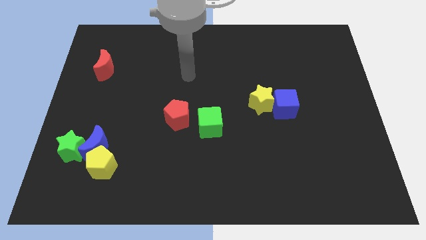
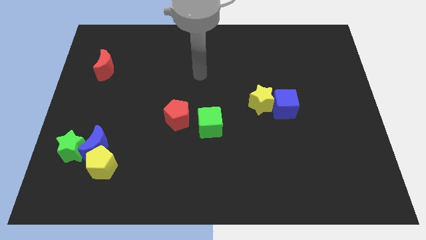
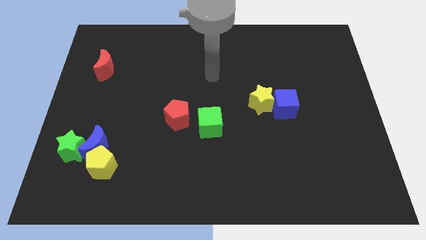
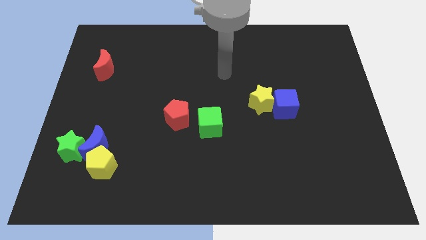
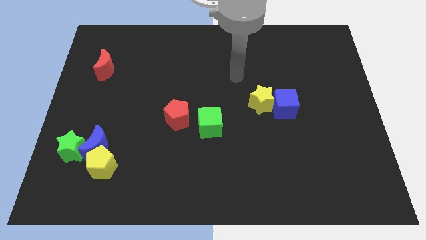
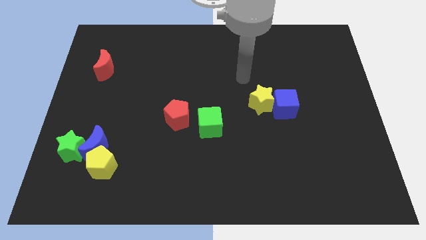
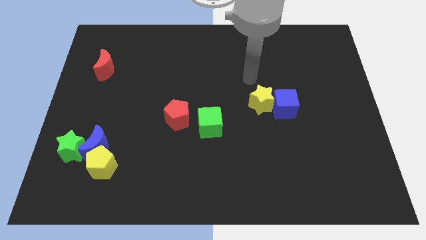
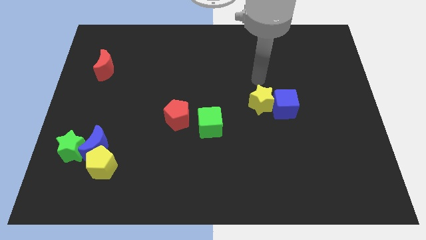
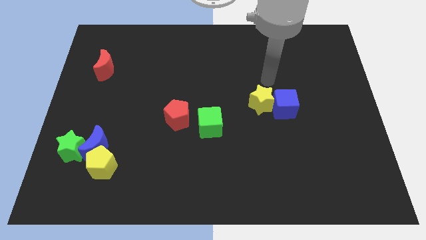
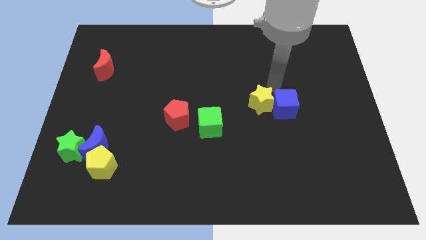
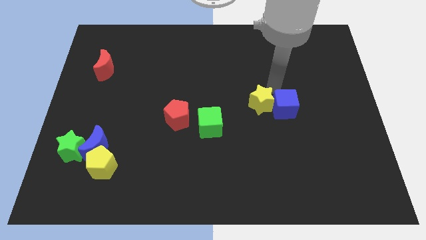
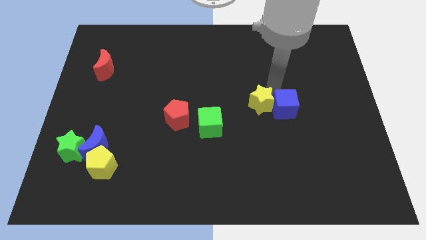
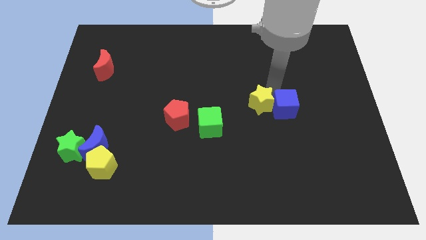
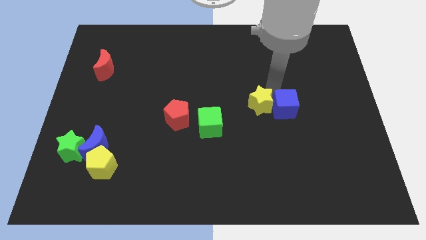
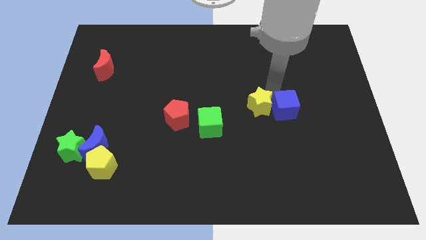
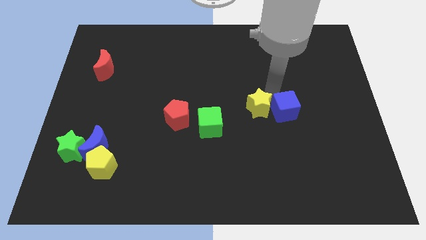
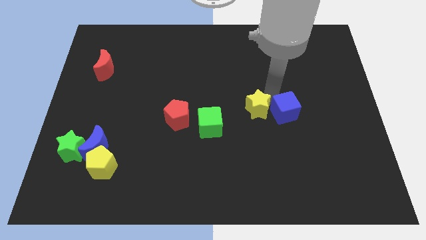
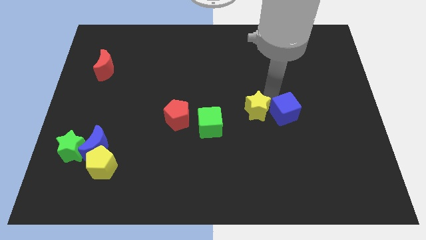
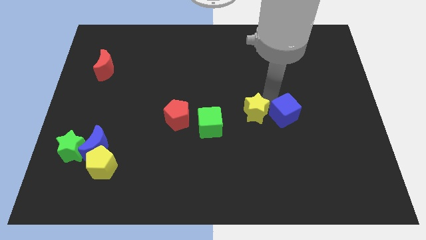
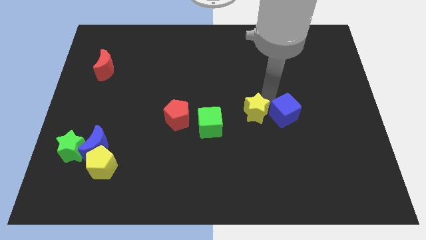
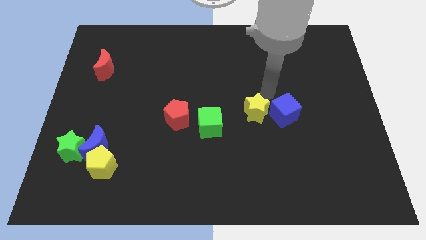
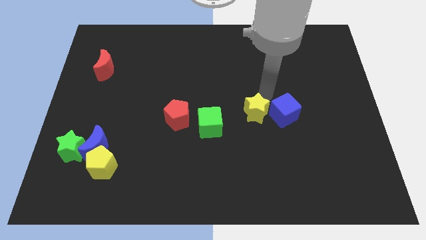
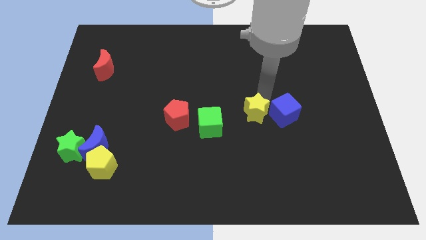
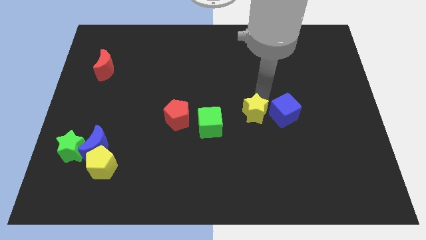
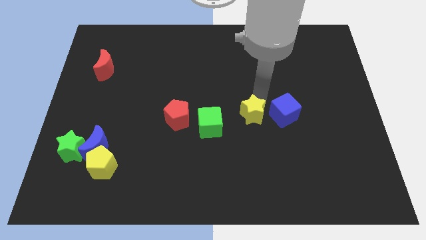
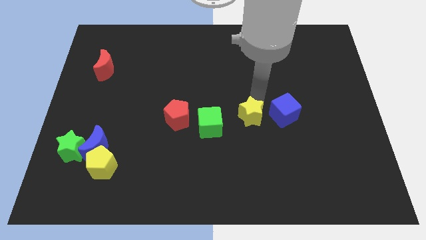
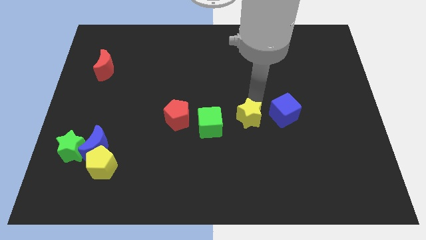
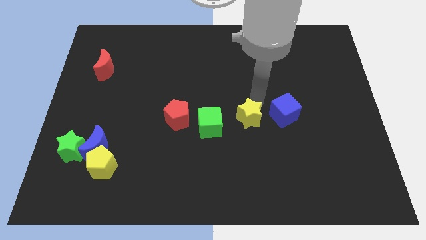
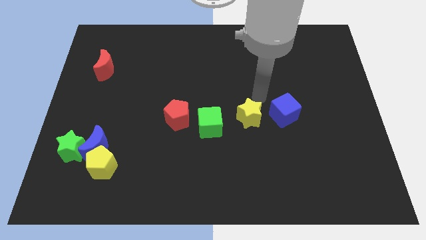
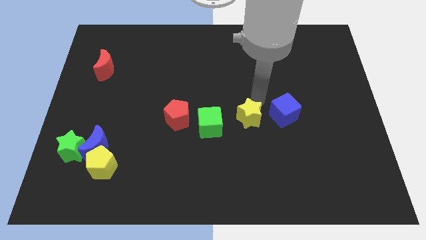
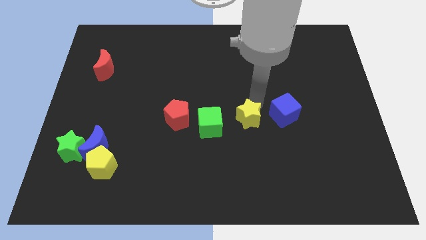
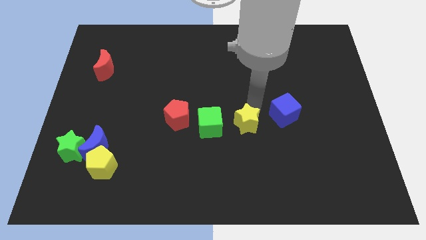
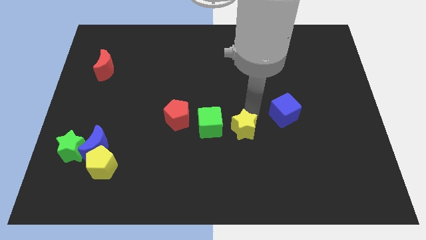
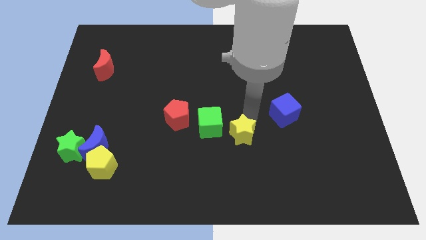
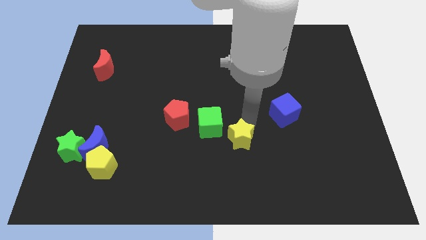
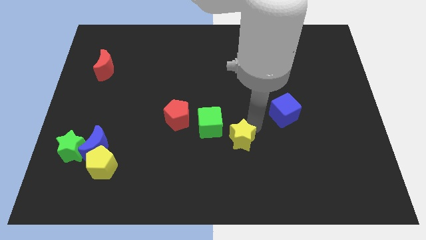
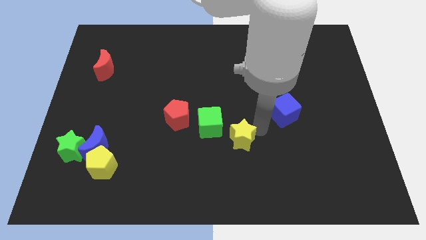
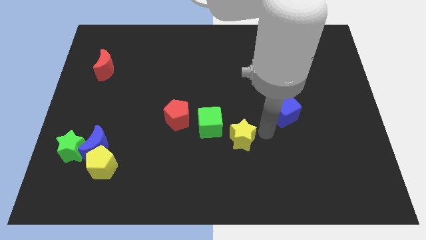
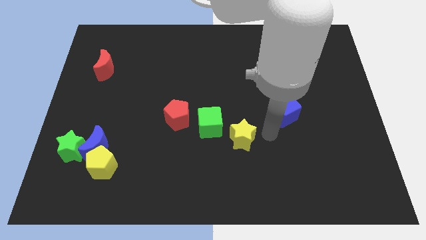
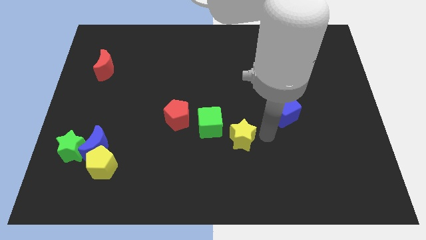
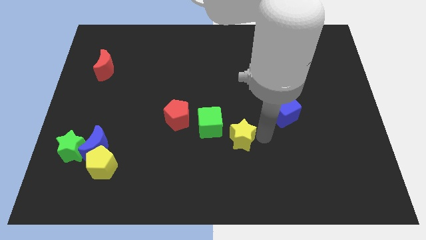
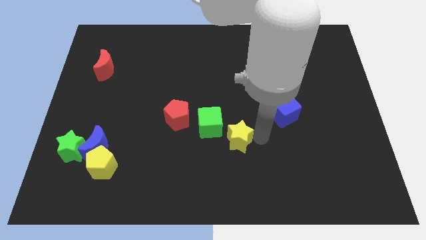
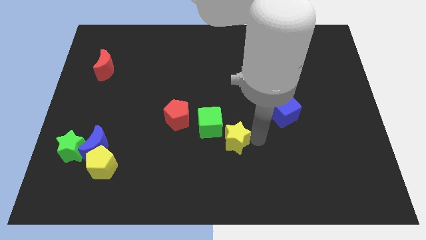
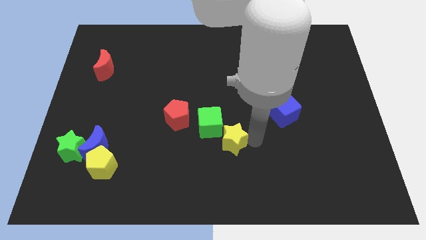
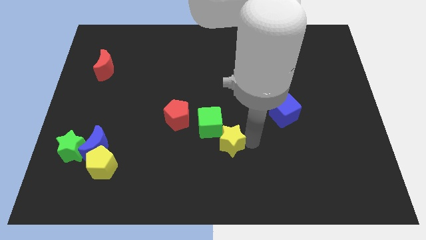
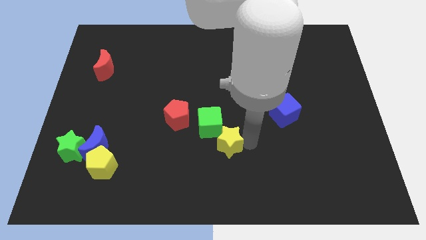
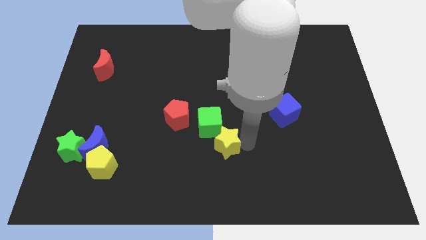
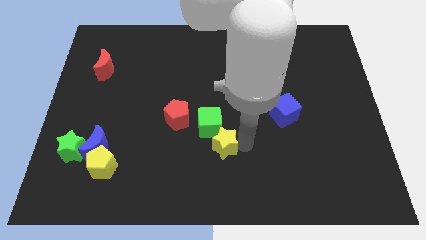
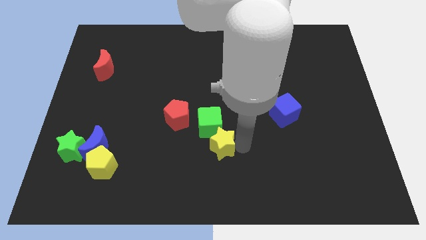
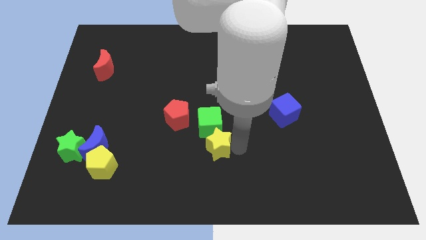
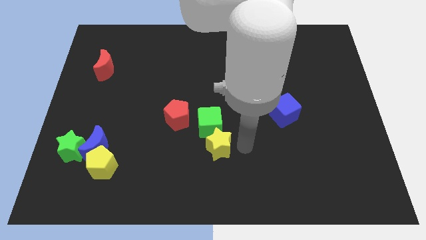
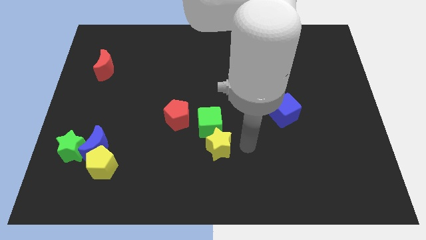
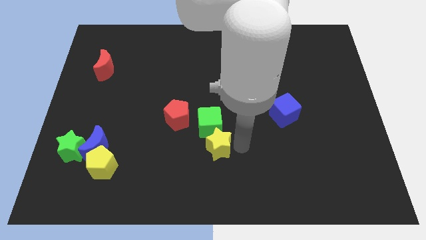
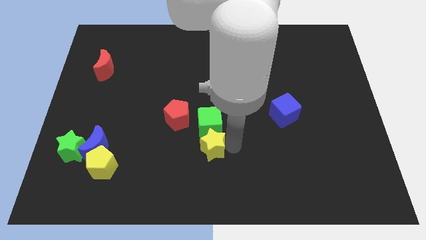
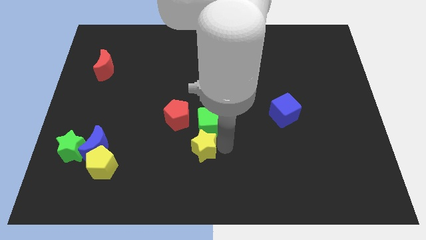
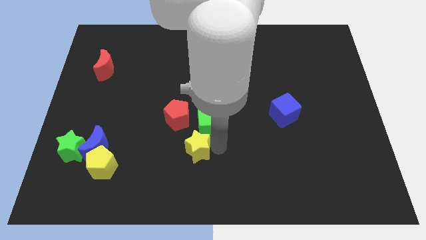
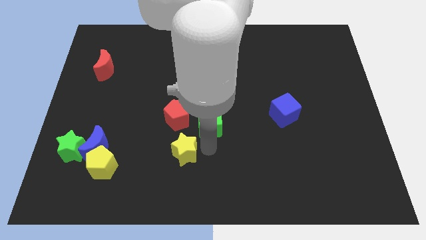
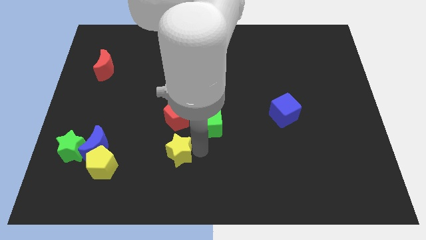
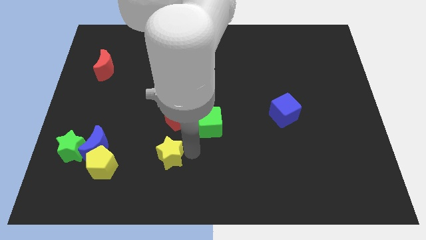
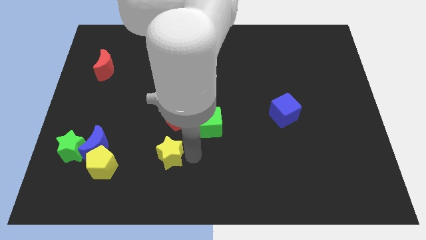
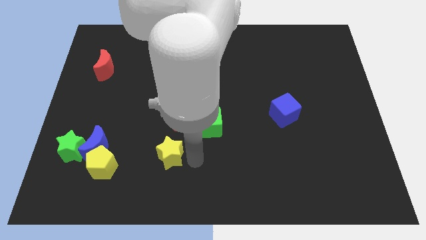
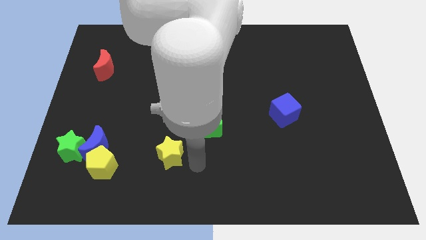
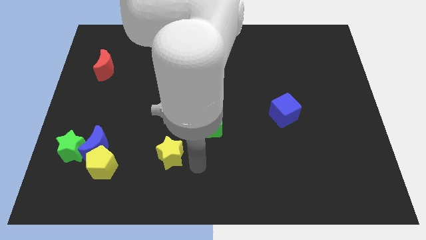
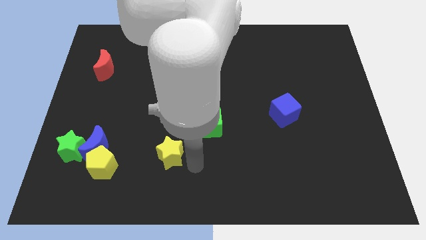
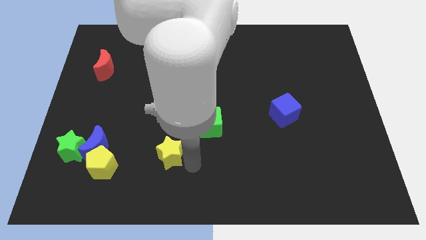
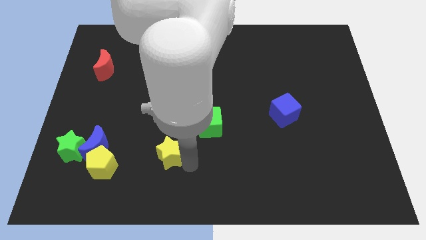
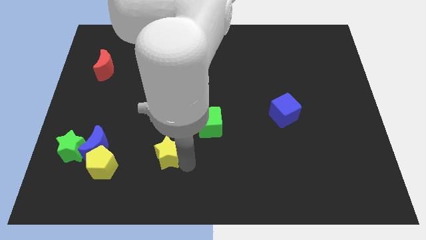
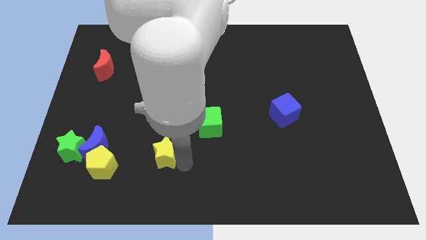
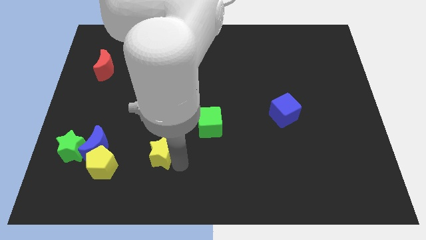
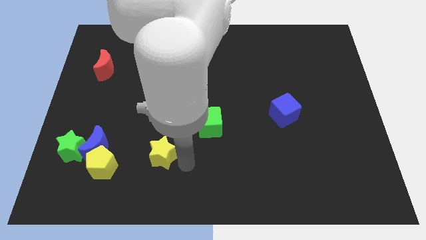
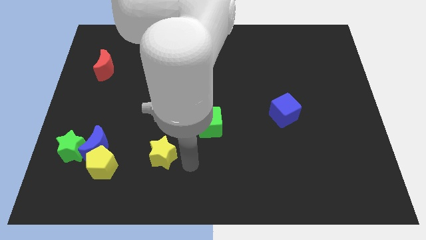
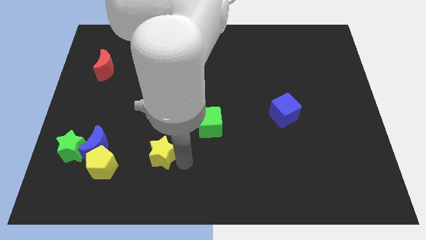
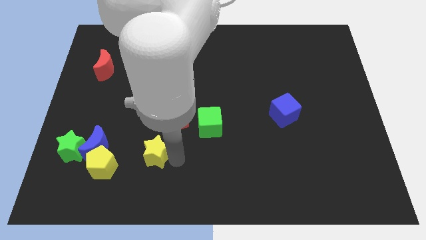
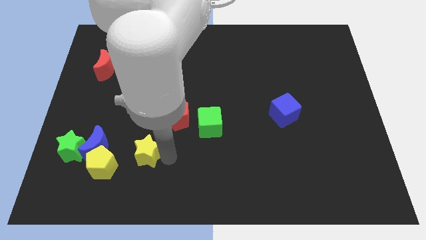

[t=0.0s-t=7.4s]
move the yellow star diagonally up and to the right of the yellow pentagon

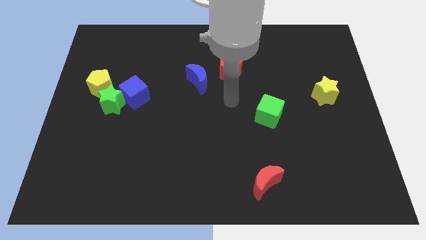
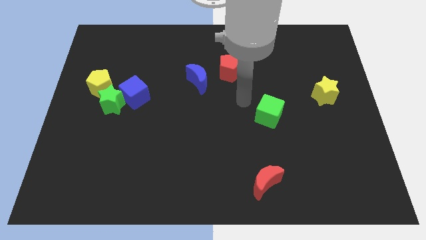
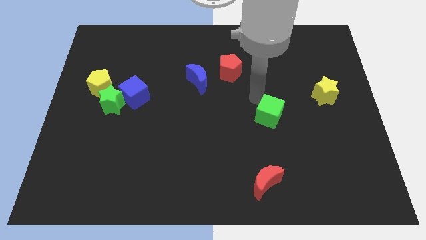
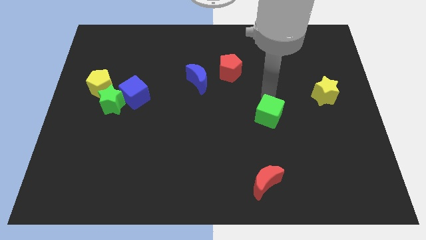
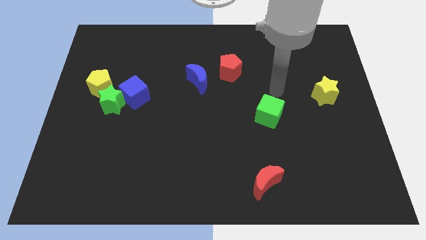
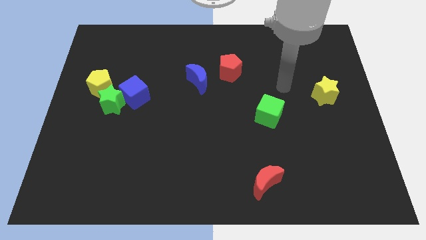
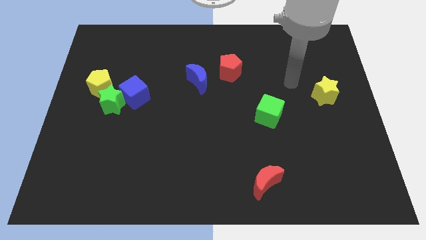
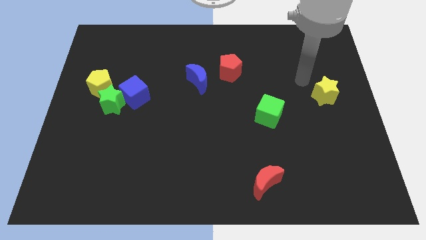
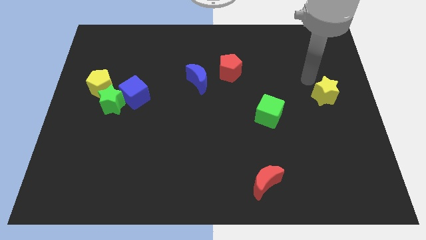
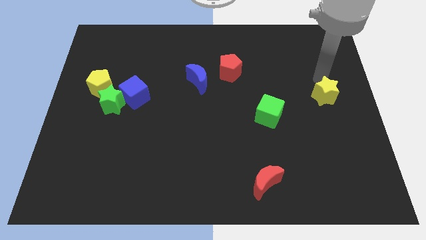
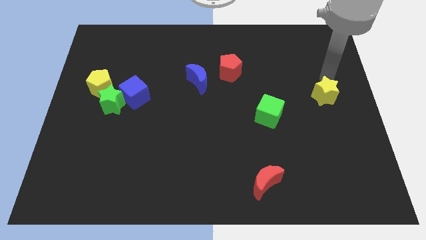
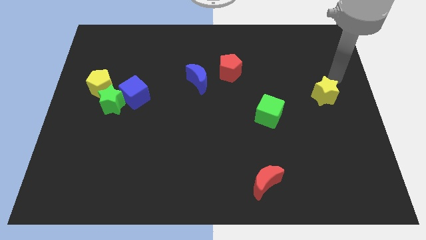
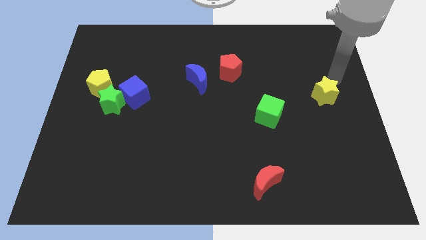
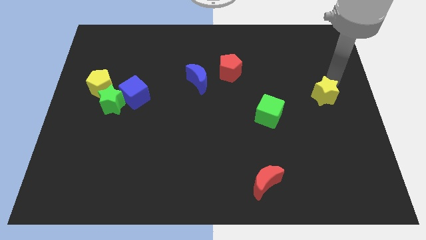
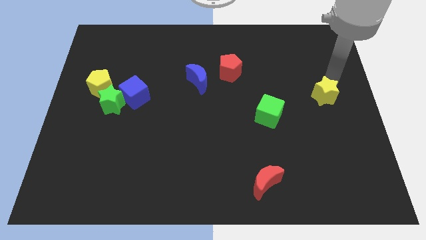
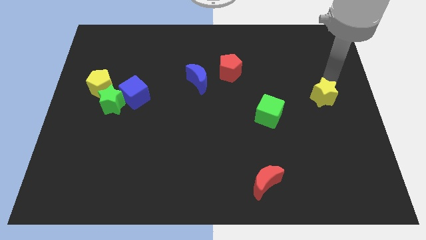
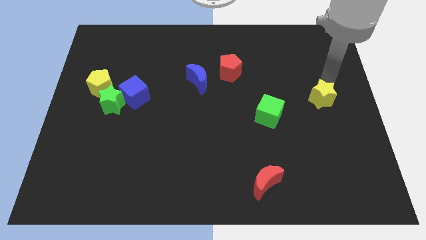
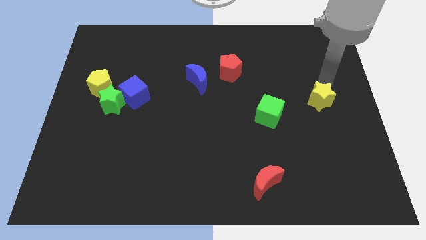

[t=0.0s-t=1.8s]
push the yellow star to the right of the green cube
